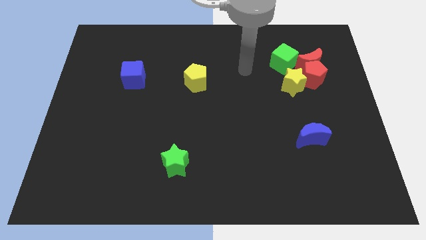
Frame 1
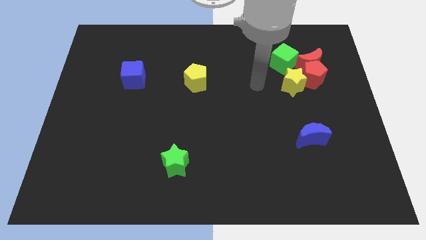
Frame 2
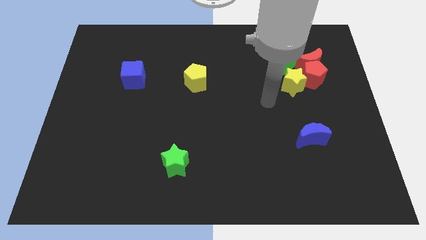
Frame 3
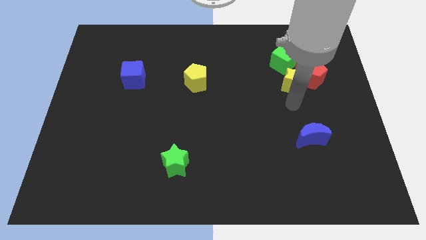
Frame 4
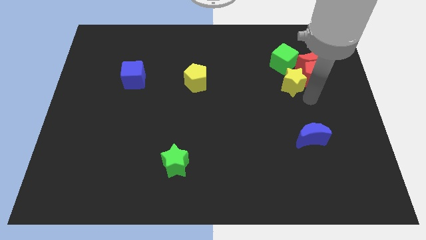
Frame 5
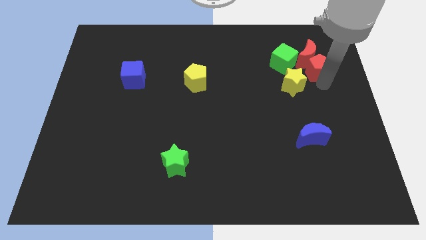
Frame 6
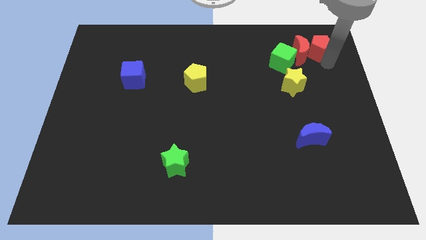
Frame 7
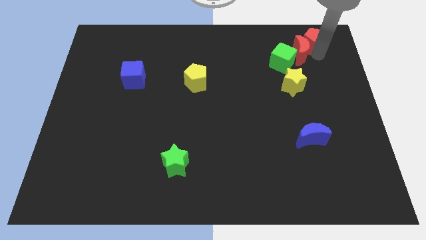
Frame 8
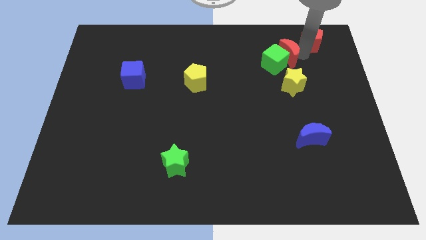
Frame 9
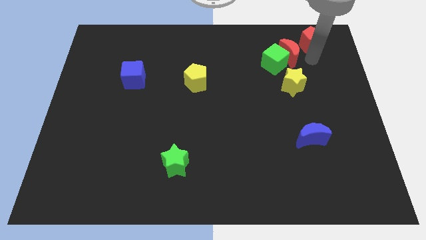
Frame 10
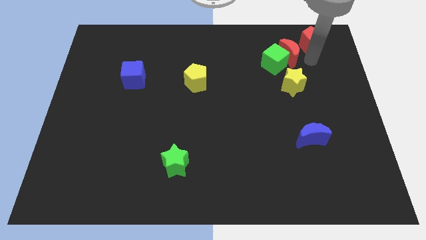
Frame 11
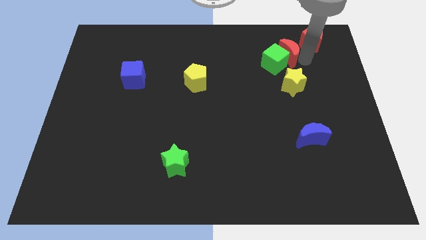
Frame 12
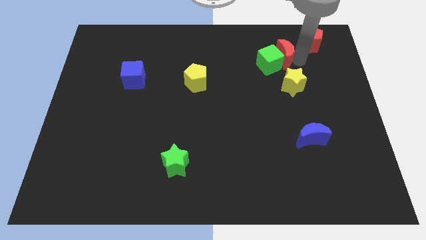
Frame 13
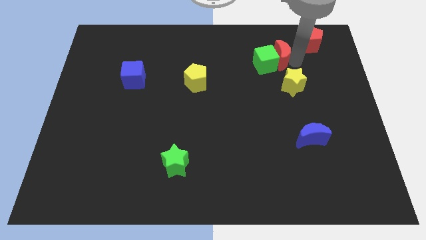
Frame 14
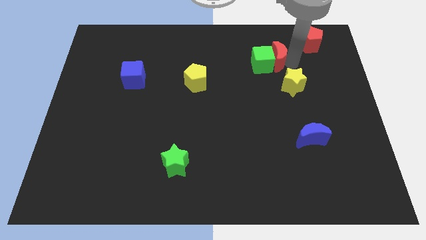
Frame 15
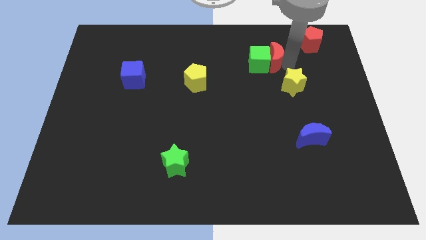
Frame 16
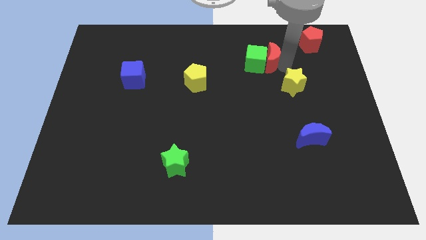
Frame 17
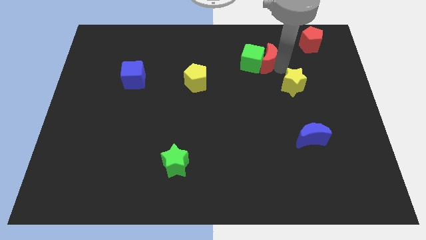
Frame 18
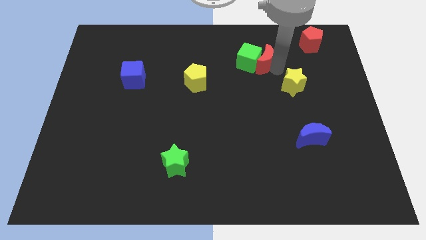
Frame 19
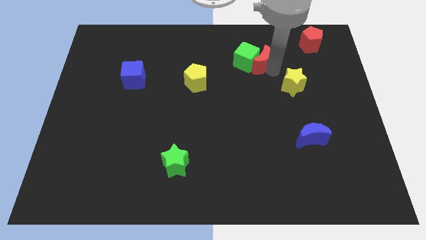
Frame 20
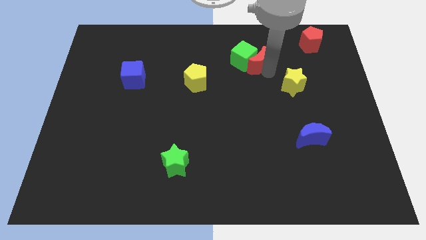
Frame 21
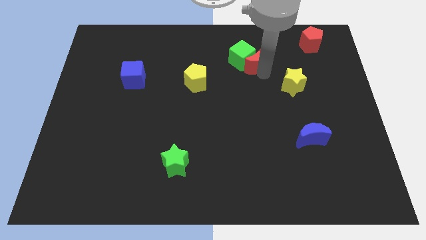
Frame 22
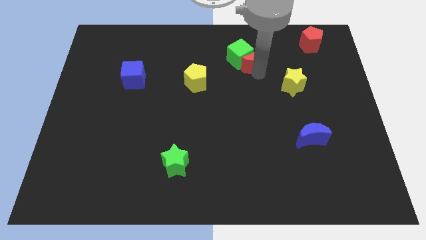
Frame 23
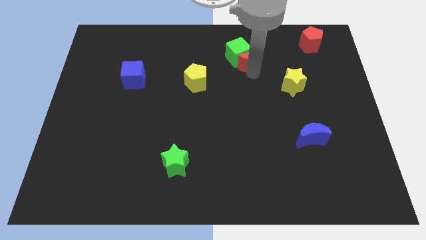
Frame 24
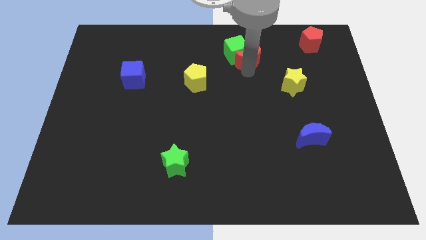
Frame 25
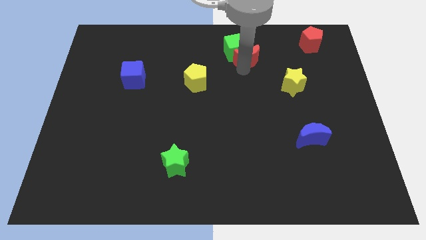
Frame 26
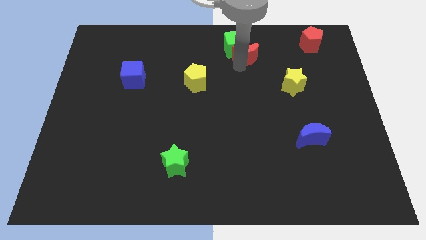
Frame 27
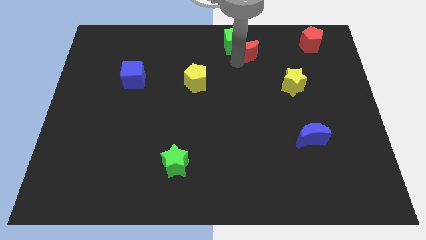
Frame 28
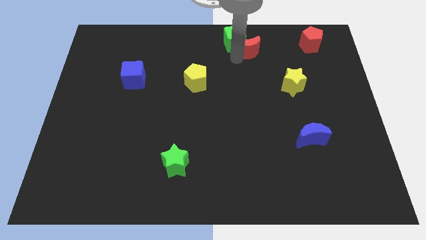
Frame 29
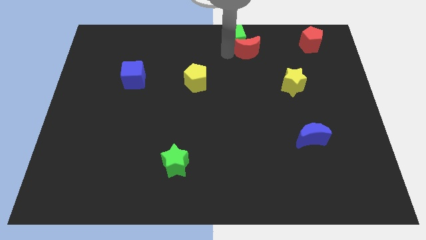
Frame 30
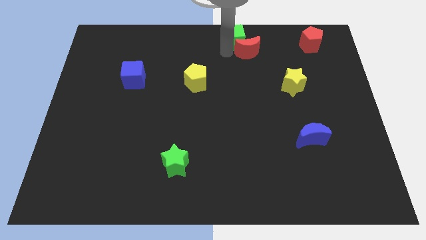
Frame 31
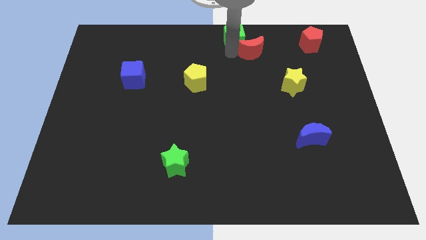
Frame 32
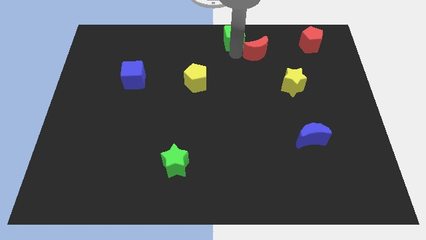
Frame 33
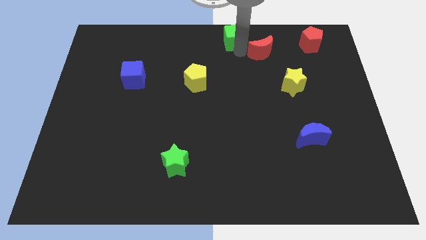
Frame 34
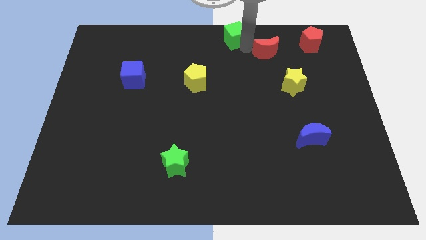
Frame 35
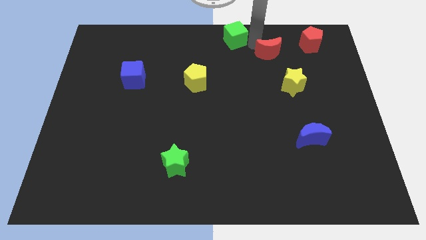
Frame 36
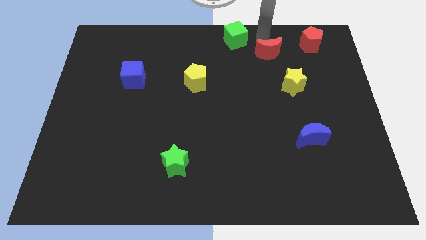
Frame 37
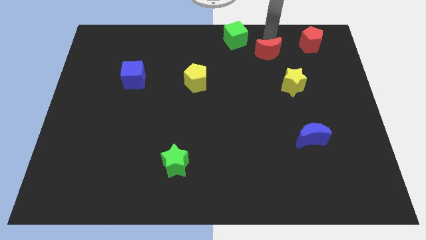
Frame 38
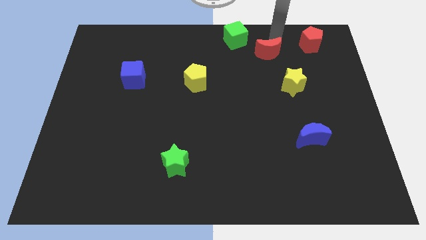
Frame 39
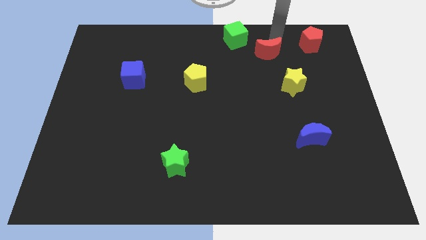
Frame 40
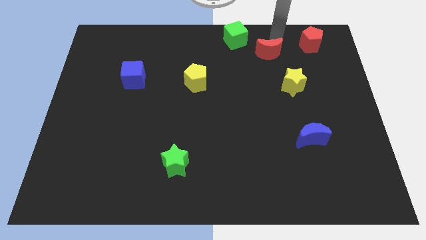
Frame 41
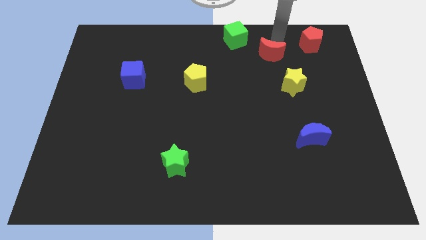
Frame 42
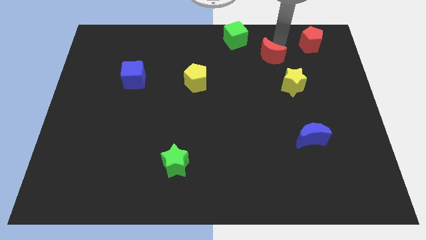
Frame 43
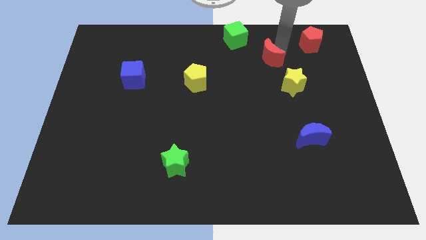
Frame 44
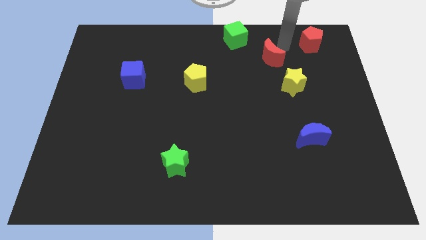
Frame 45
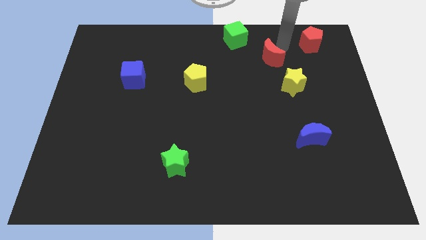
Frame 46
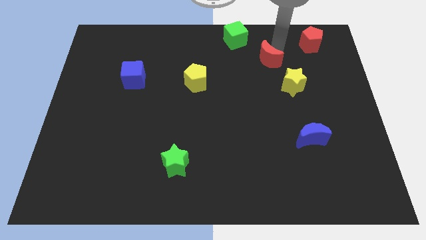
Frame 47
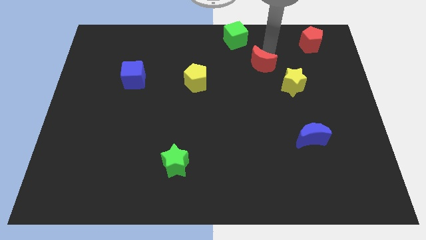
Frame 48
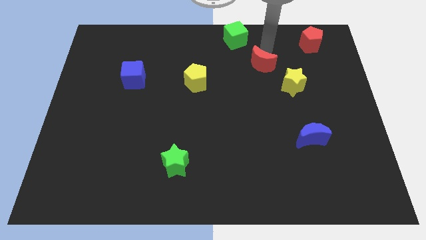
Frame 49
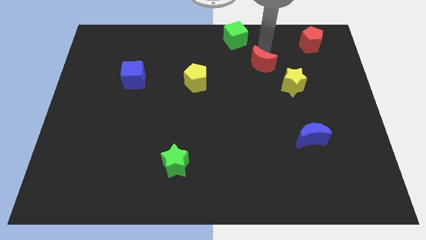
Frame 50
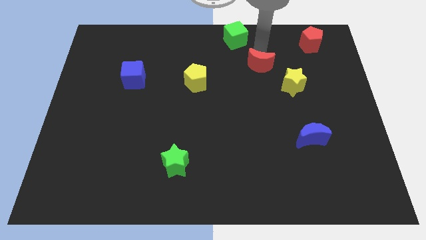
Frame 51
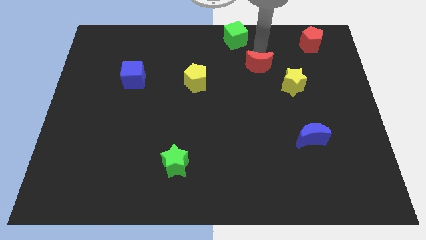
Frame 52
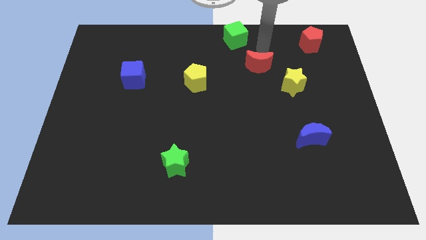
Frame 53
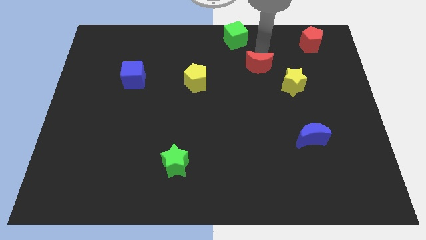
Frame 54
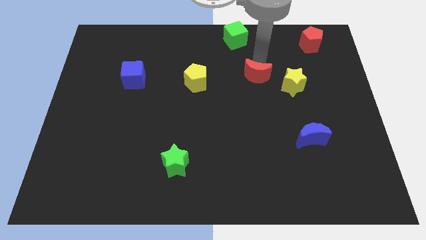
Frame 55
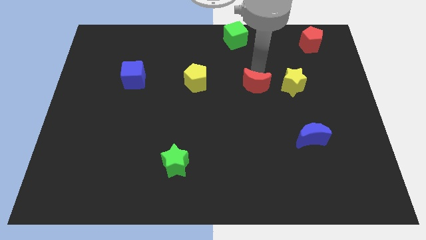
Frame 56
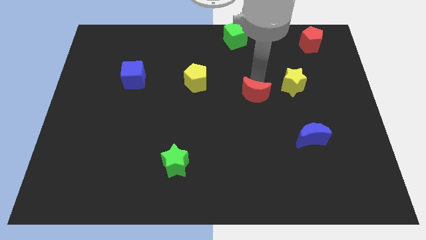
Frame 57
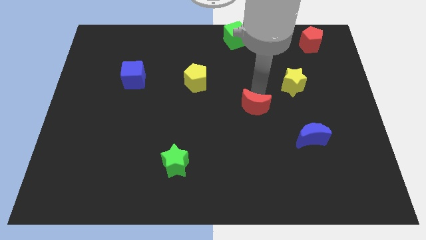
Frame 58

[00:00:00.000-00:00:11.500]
slide the red moon diagonally downwards and to the left

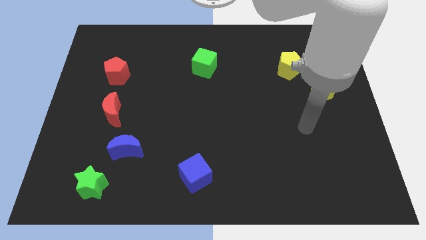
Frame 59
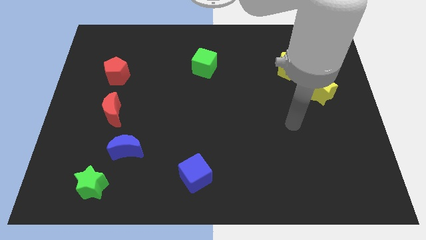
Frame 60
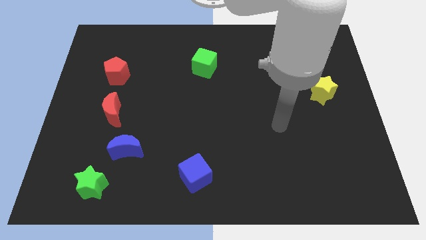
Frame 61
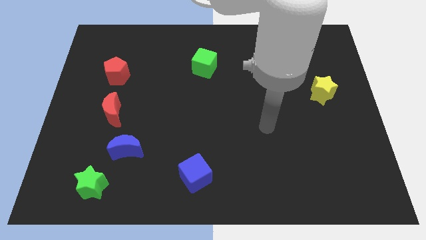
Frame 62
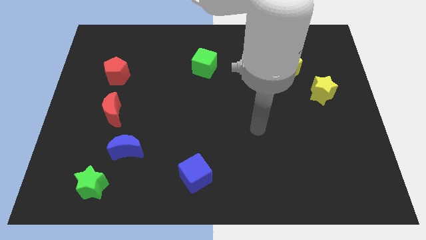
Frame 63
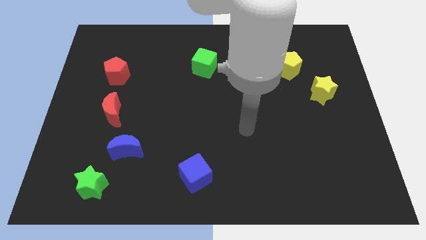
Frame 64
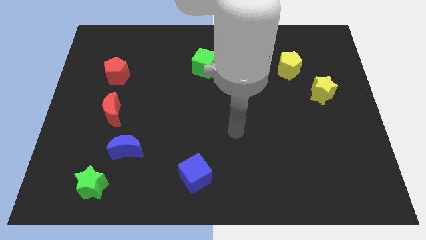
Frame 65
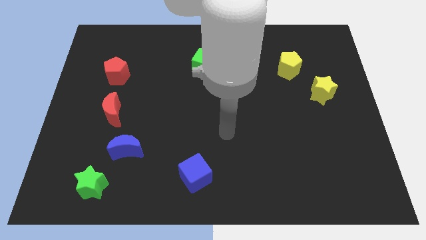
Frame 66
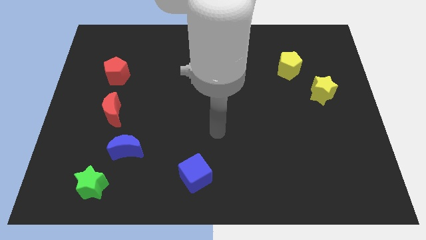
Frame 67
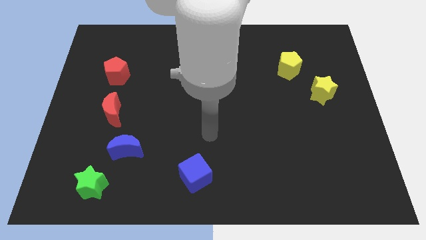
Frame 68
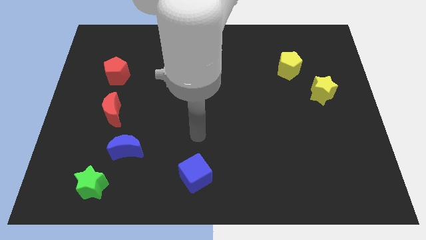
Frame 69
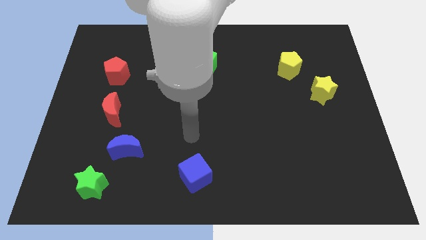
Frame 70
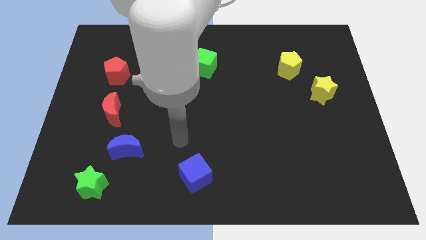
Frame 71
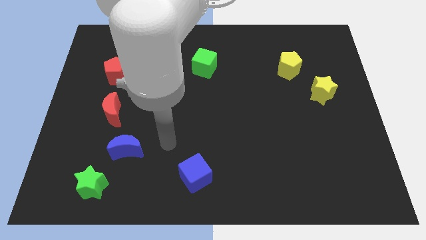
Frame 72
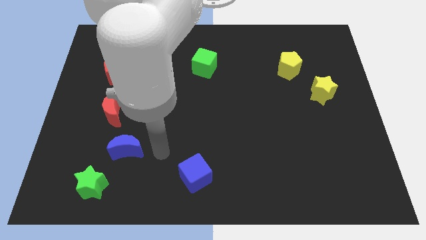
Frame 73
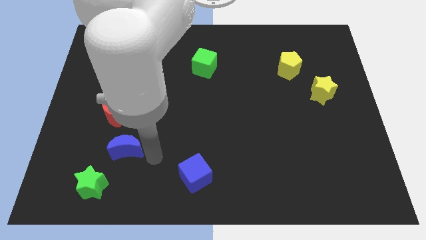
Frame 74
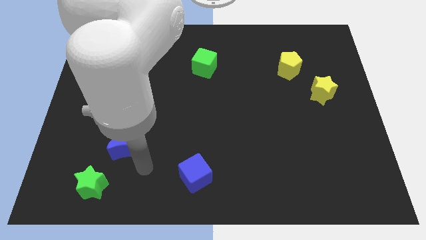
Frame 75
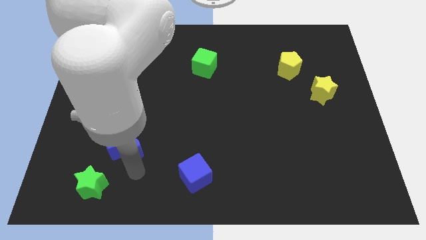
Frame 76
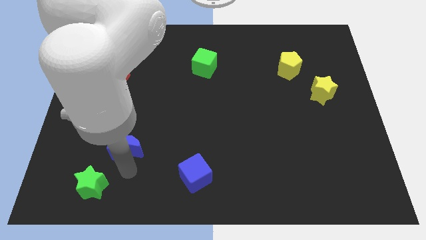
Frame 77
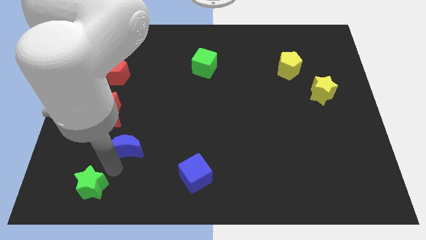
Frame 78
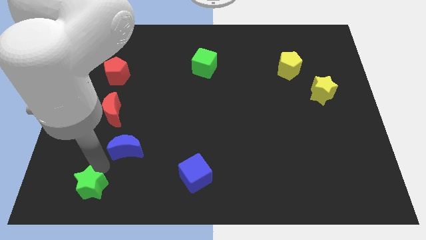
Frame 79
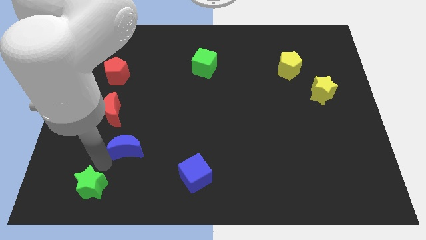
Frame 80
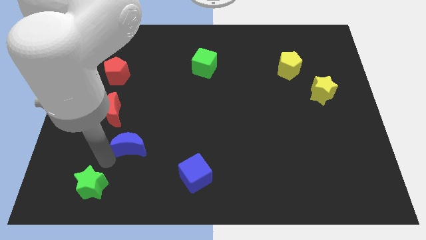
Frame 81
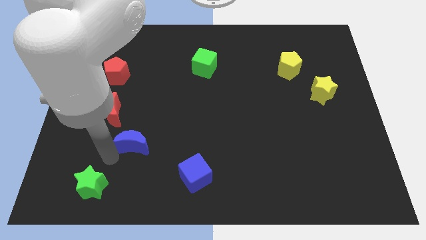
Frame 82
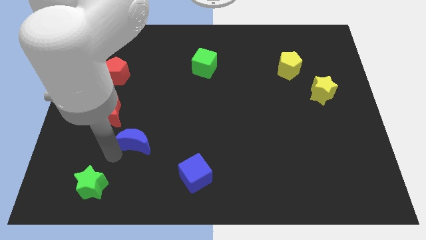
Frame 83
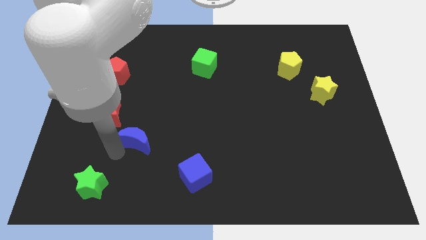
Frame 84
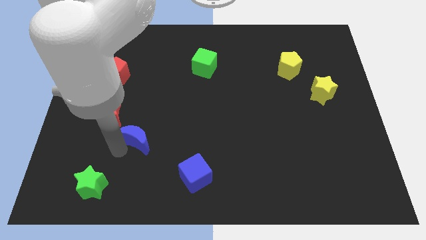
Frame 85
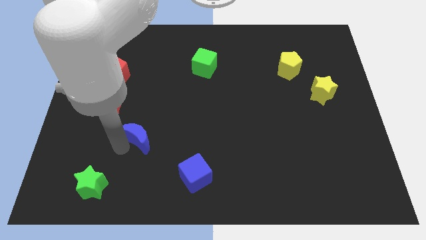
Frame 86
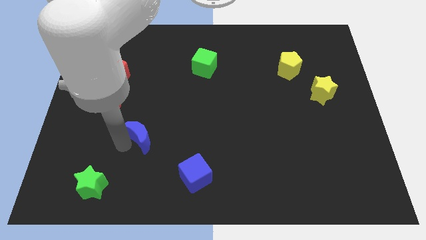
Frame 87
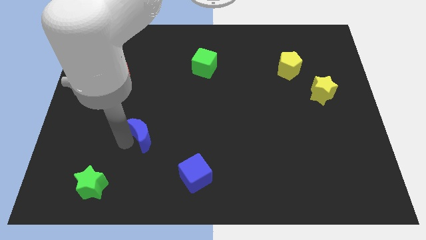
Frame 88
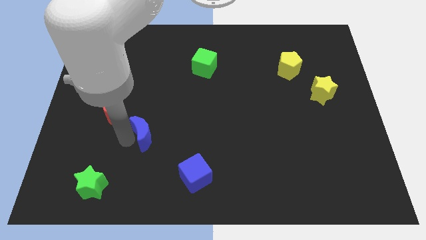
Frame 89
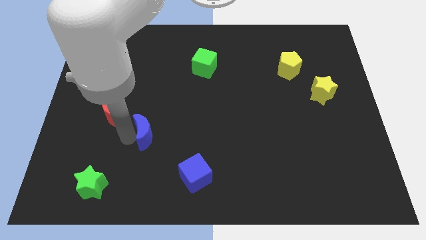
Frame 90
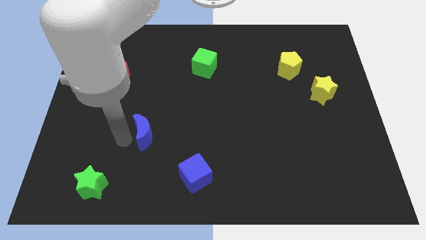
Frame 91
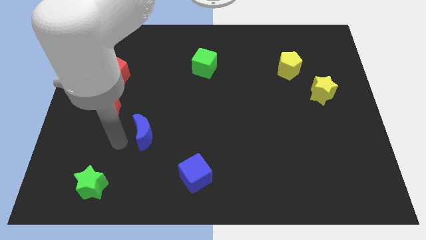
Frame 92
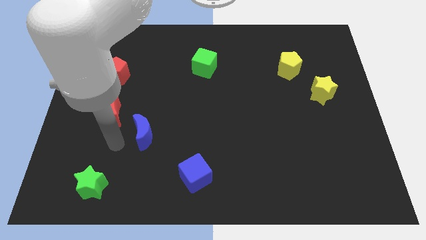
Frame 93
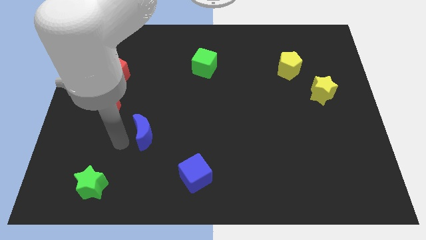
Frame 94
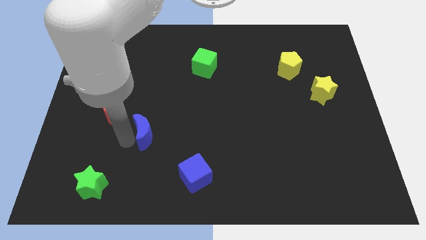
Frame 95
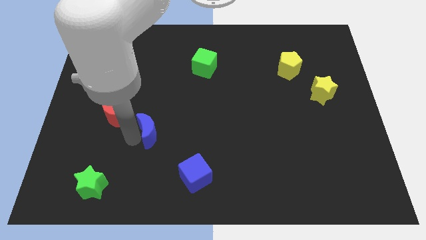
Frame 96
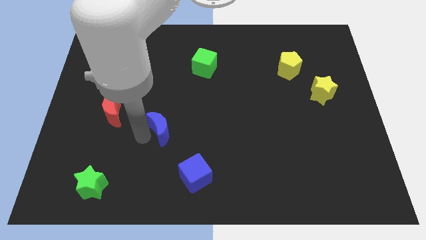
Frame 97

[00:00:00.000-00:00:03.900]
slightly slide the blue moon upwards and to the right
